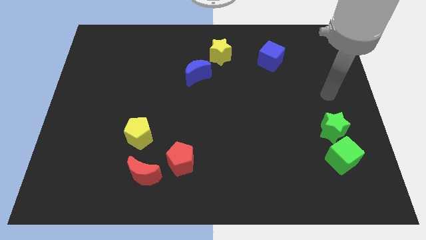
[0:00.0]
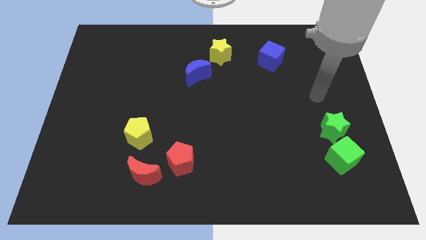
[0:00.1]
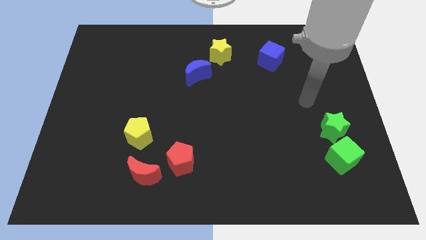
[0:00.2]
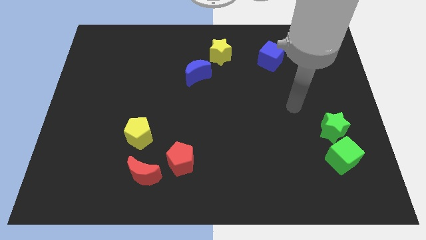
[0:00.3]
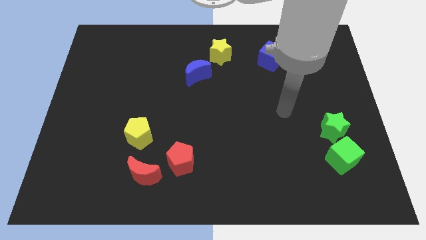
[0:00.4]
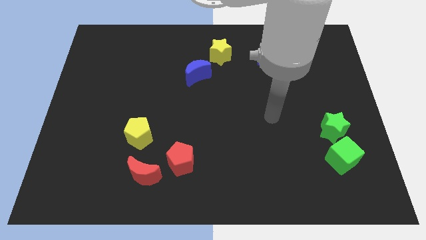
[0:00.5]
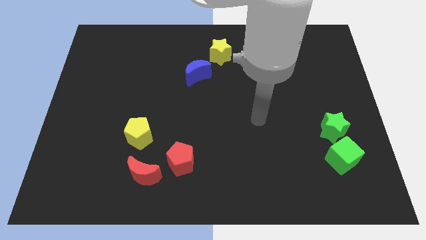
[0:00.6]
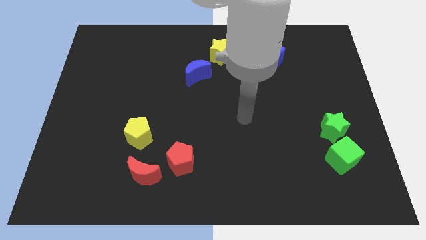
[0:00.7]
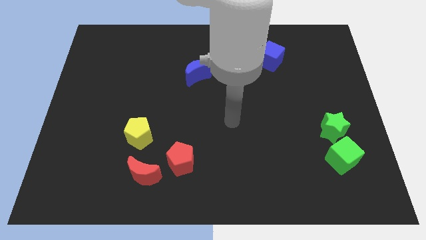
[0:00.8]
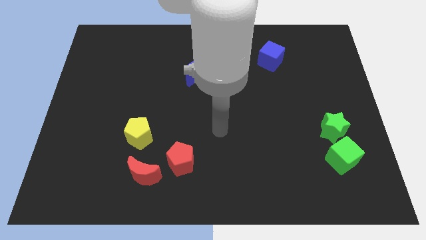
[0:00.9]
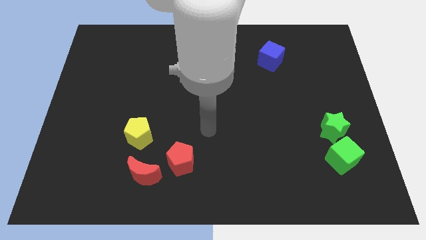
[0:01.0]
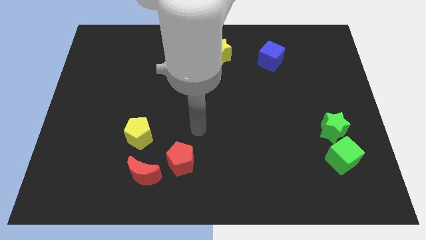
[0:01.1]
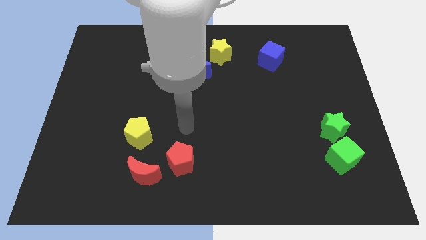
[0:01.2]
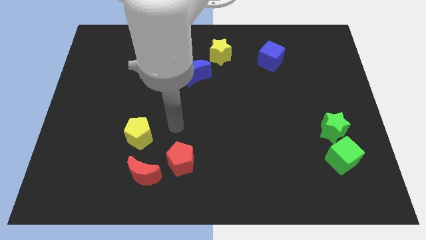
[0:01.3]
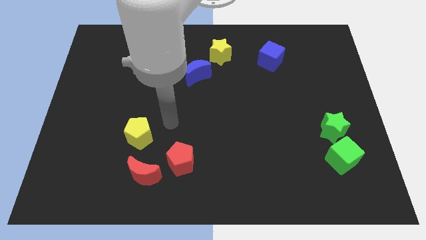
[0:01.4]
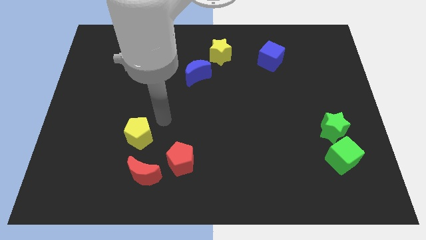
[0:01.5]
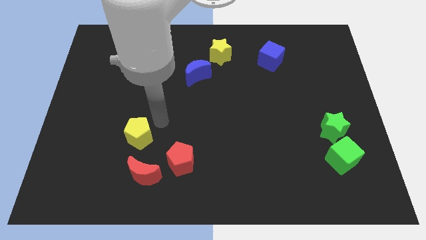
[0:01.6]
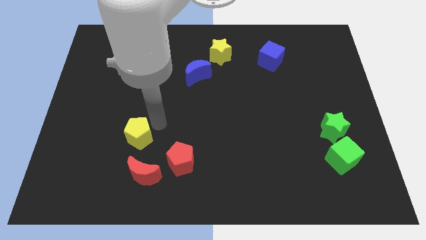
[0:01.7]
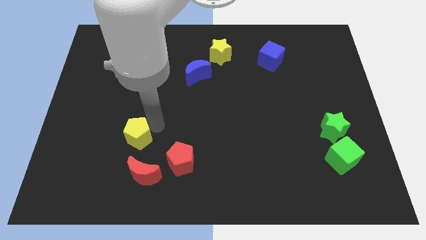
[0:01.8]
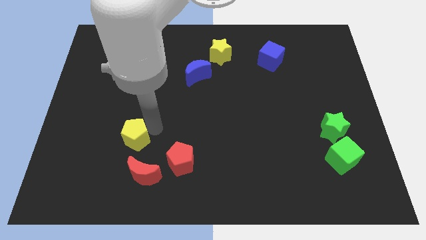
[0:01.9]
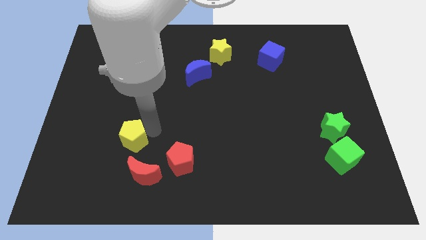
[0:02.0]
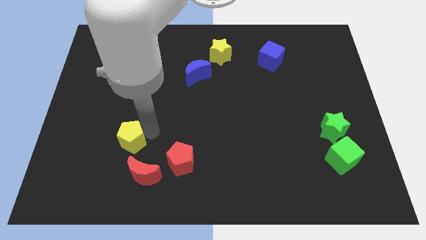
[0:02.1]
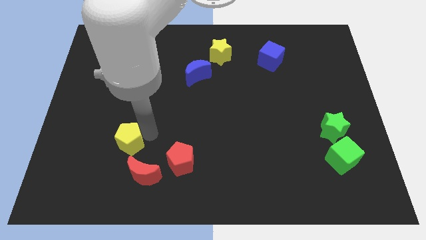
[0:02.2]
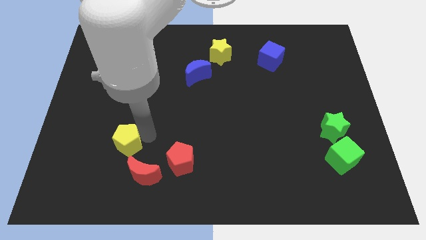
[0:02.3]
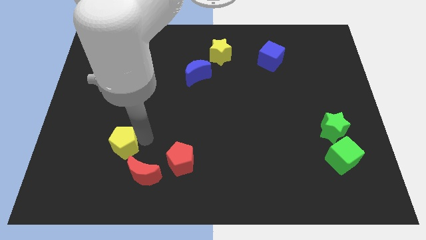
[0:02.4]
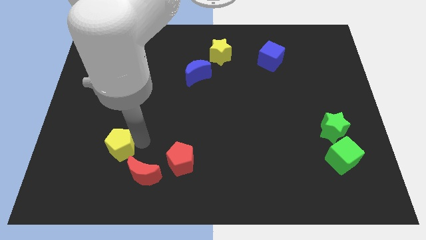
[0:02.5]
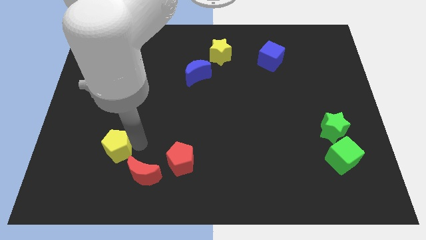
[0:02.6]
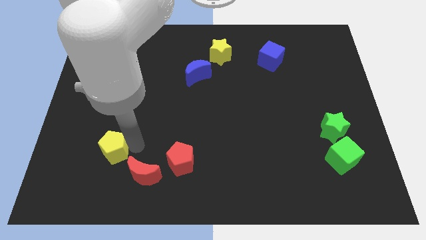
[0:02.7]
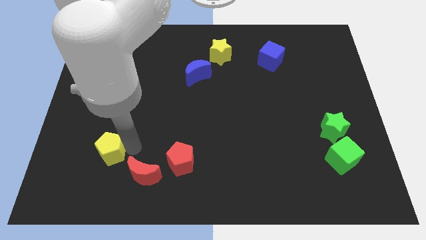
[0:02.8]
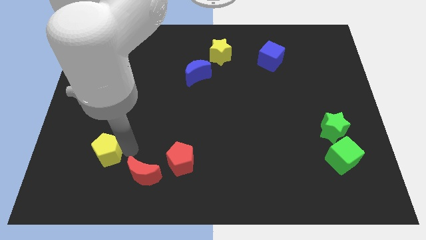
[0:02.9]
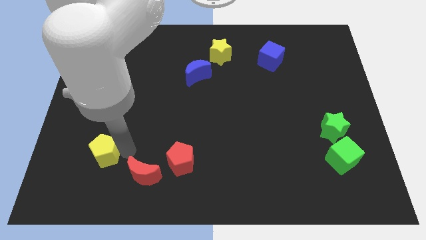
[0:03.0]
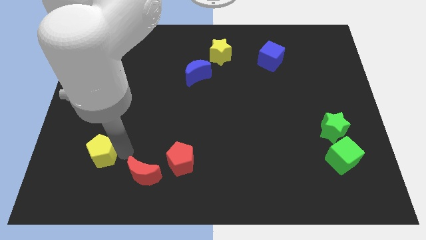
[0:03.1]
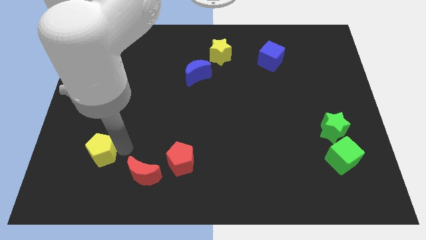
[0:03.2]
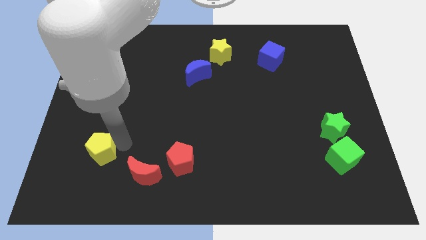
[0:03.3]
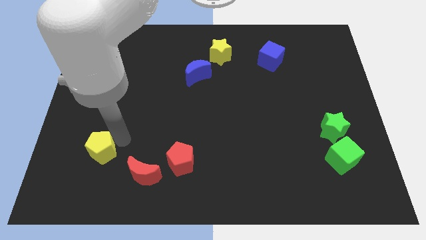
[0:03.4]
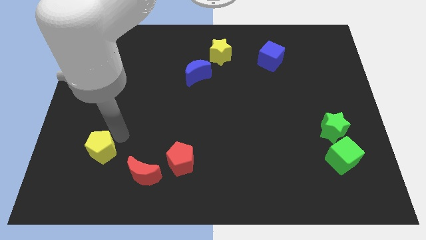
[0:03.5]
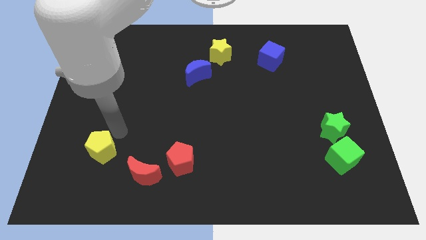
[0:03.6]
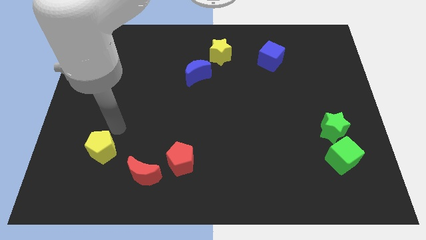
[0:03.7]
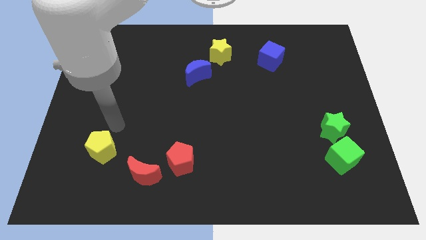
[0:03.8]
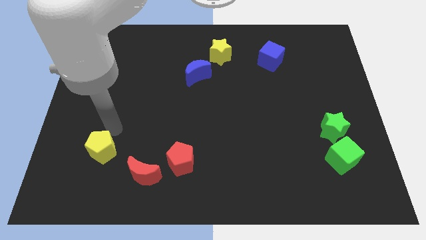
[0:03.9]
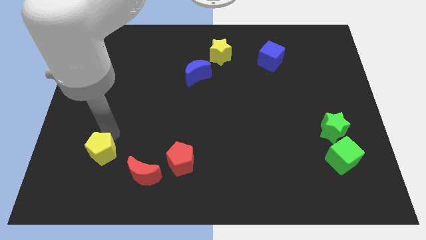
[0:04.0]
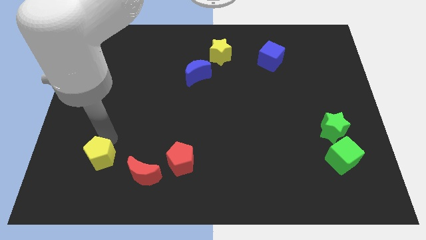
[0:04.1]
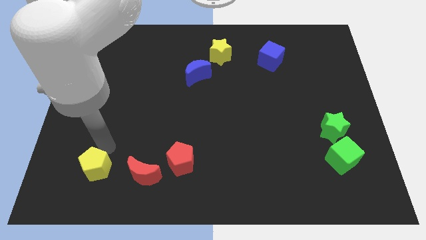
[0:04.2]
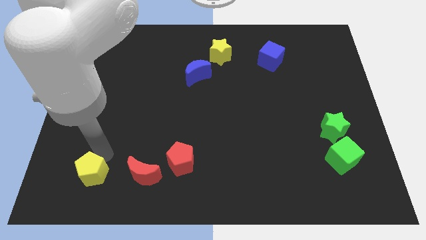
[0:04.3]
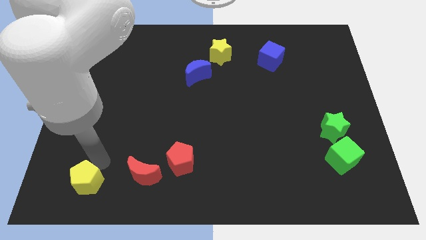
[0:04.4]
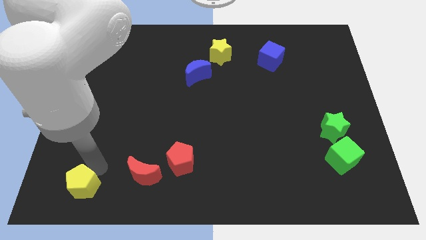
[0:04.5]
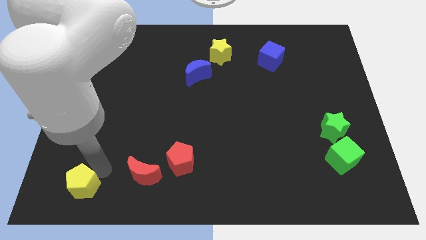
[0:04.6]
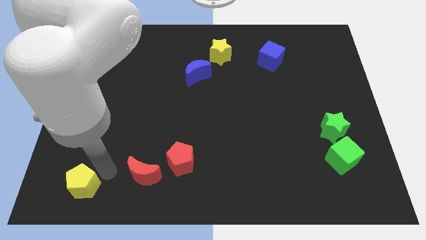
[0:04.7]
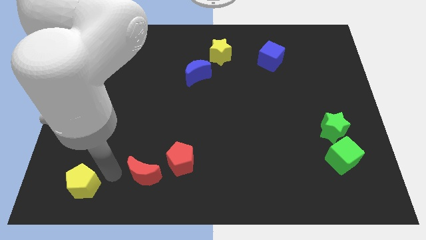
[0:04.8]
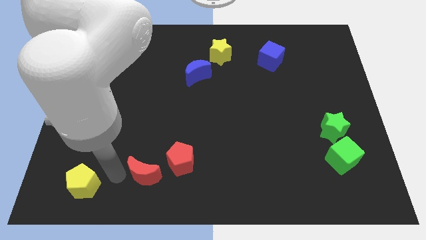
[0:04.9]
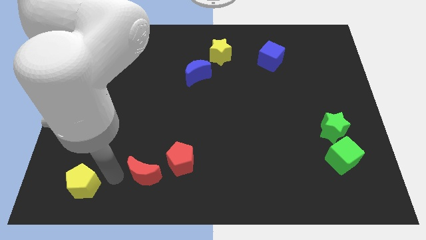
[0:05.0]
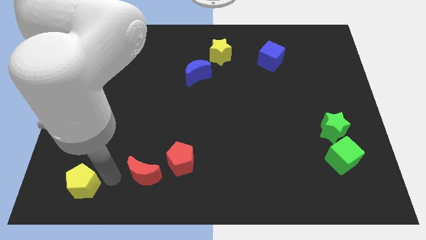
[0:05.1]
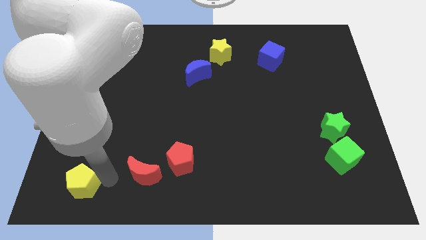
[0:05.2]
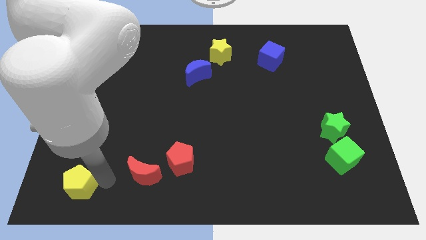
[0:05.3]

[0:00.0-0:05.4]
slide the yellow pentagon to the bottom left corner

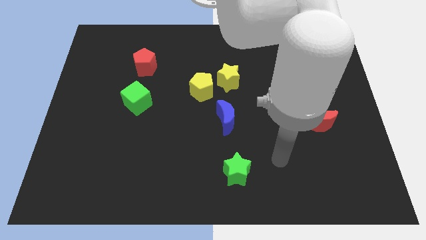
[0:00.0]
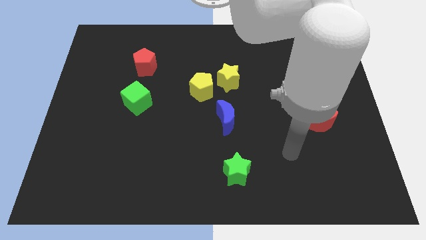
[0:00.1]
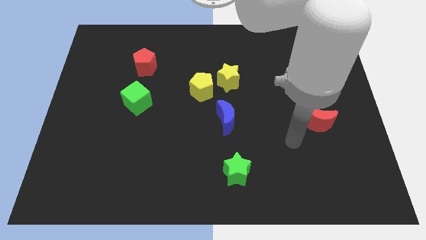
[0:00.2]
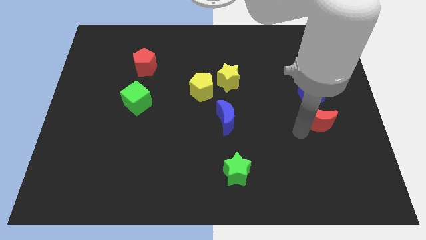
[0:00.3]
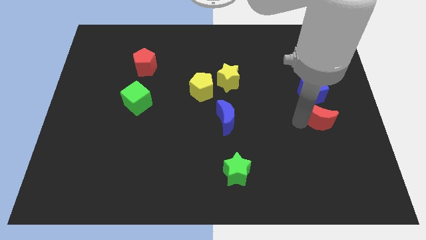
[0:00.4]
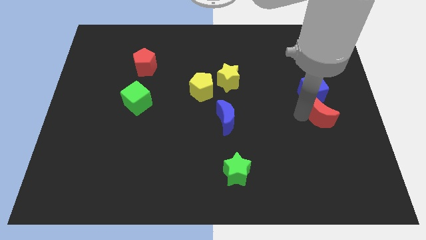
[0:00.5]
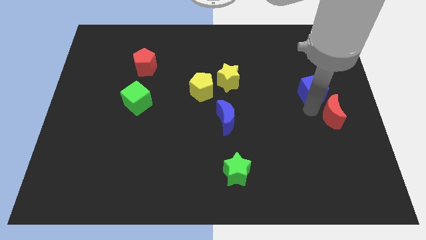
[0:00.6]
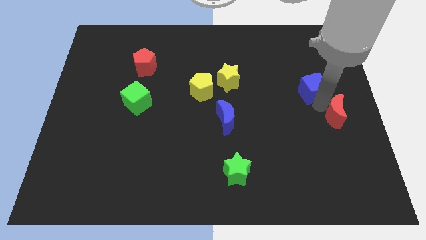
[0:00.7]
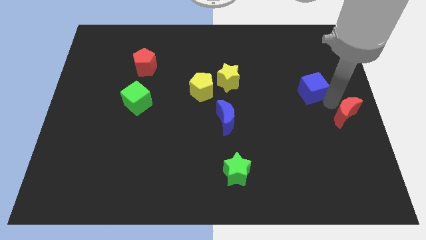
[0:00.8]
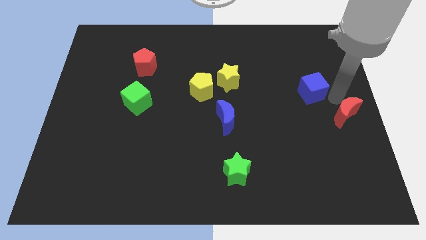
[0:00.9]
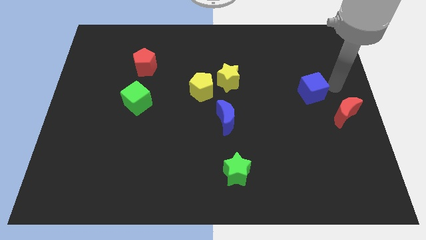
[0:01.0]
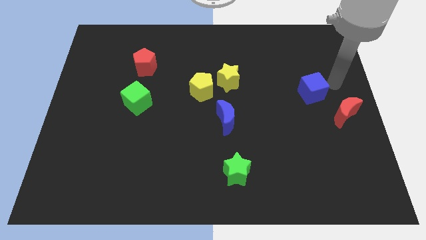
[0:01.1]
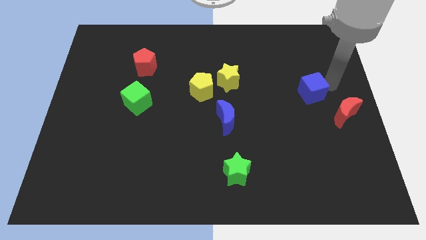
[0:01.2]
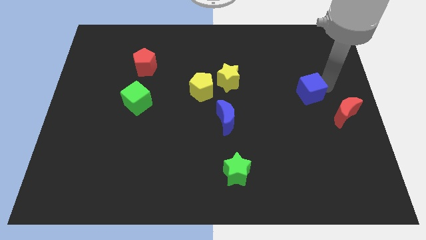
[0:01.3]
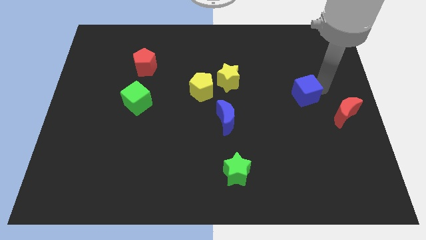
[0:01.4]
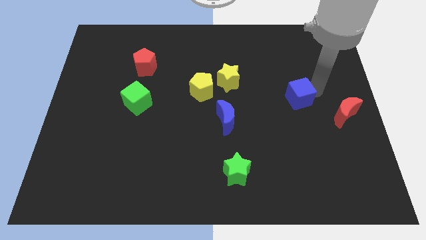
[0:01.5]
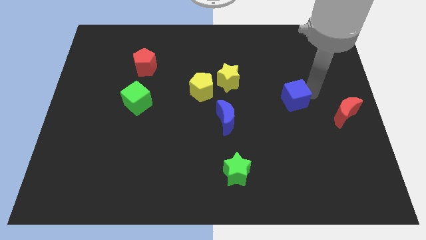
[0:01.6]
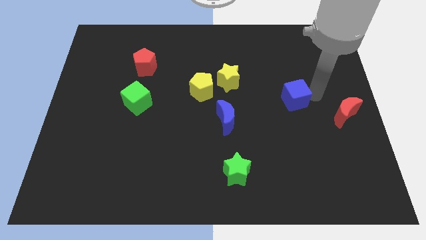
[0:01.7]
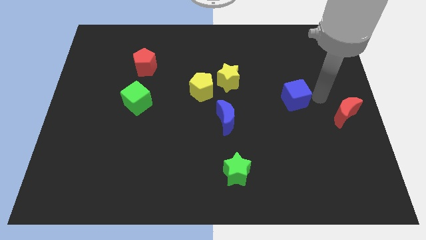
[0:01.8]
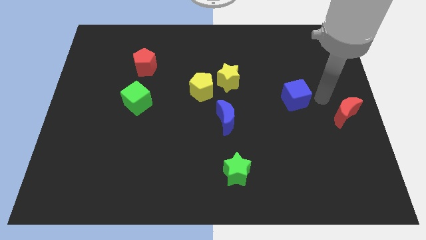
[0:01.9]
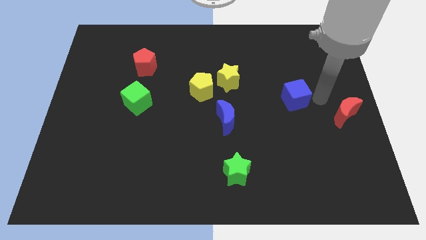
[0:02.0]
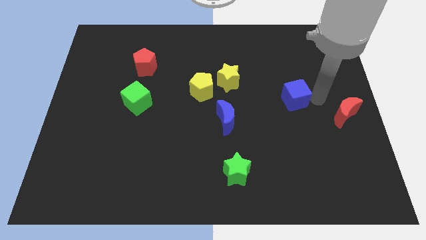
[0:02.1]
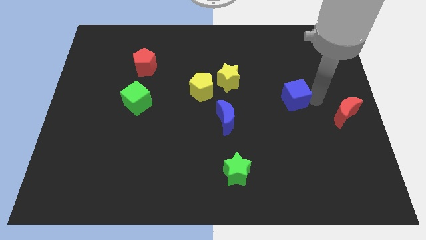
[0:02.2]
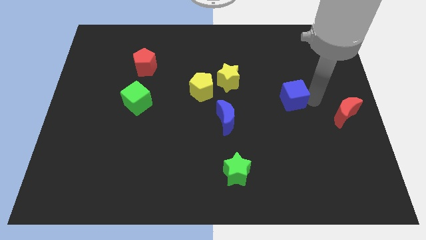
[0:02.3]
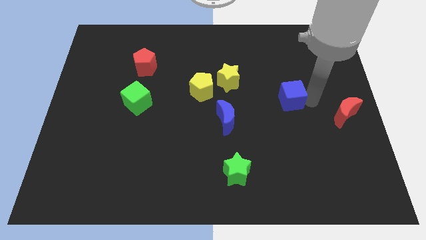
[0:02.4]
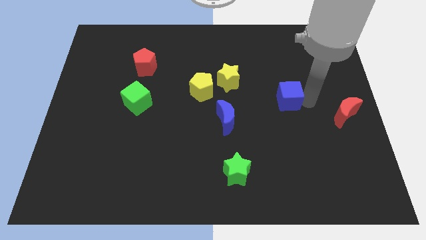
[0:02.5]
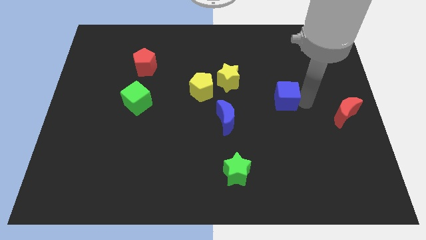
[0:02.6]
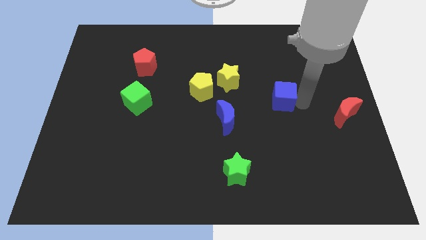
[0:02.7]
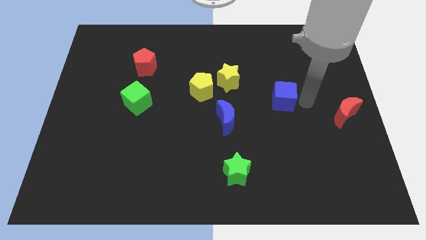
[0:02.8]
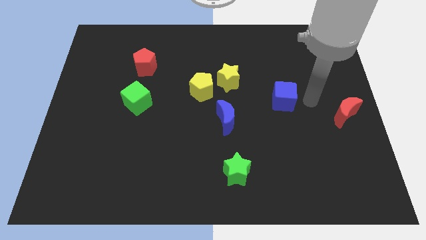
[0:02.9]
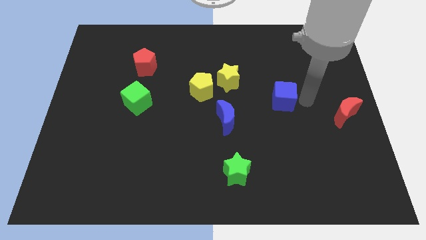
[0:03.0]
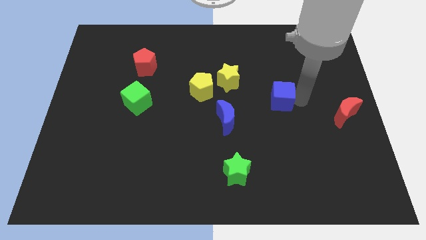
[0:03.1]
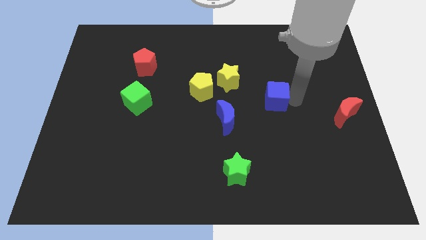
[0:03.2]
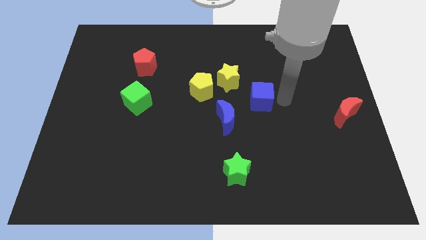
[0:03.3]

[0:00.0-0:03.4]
slide the blue cube to the center
